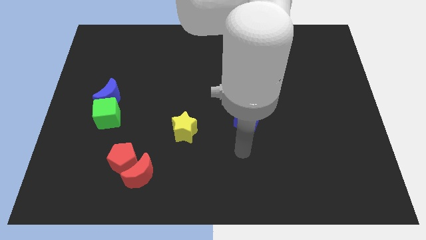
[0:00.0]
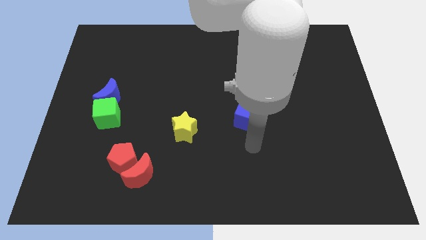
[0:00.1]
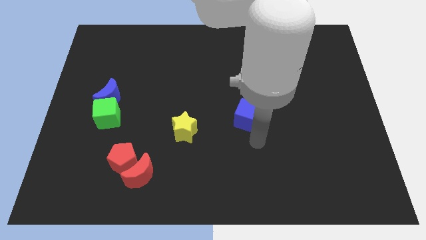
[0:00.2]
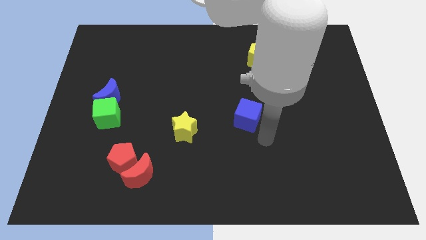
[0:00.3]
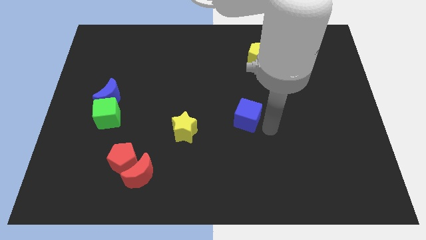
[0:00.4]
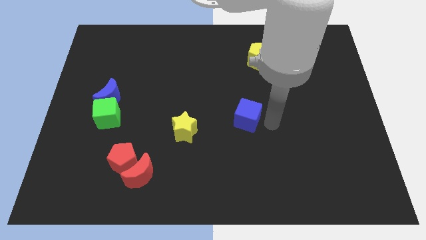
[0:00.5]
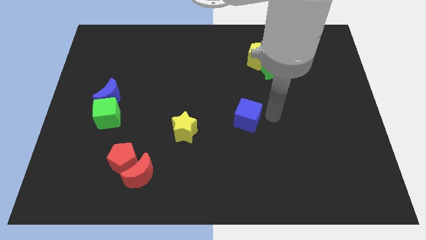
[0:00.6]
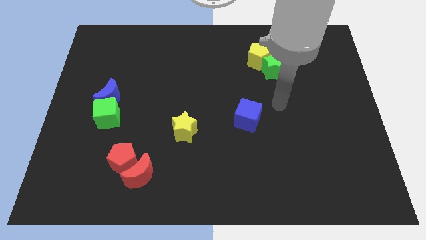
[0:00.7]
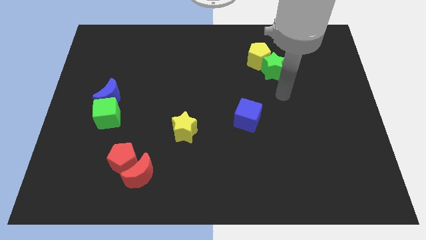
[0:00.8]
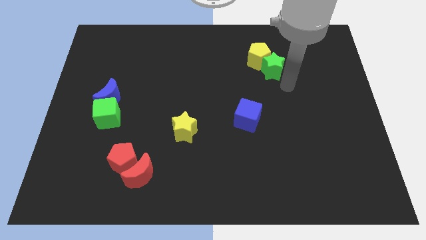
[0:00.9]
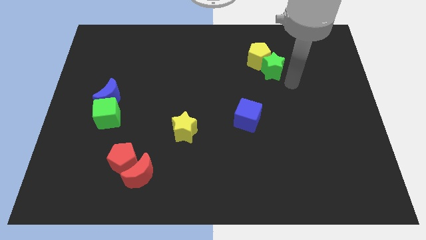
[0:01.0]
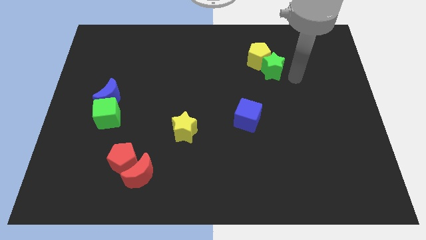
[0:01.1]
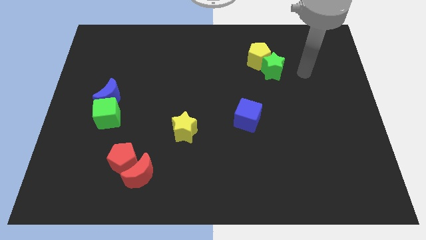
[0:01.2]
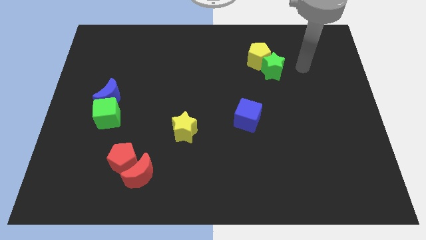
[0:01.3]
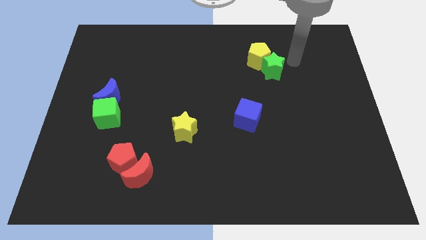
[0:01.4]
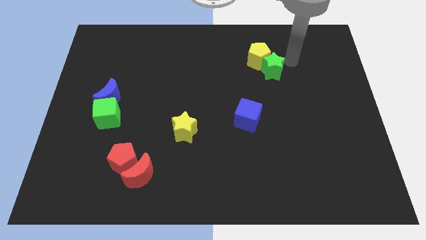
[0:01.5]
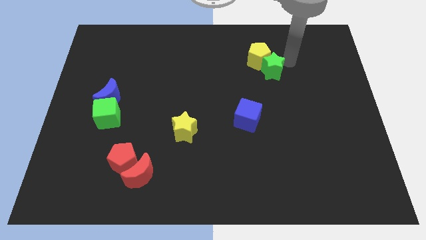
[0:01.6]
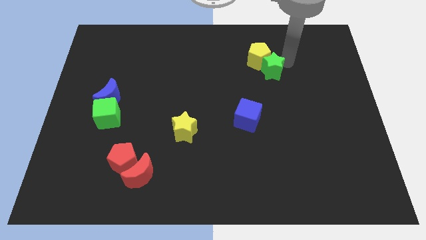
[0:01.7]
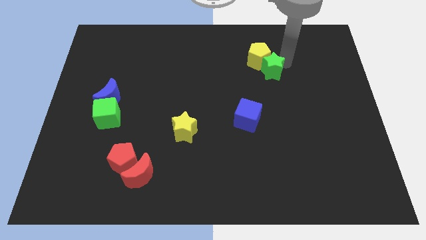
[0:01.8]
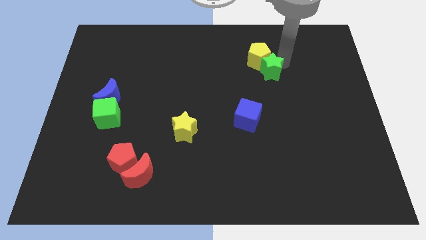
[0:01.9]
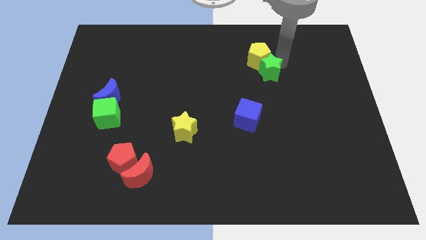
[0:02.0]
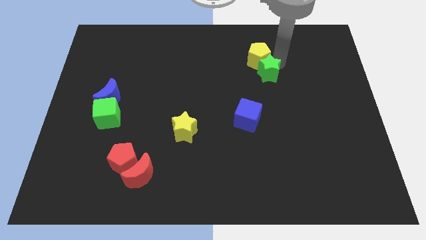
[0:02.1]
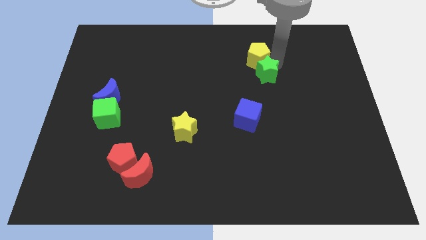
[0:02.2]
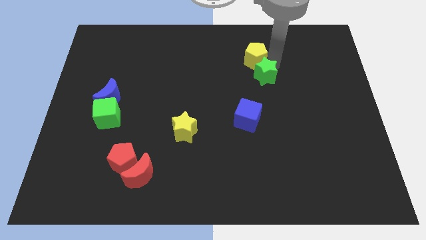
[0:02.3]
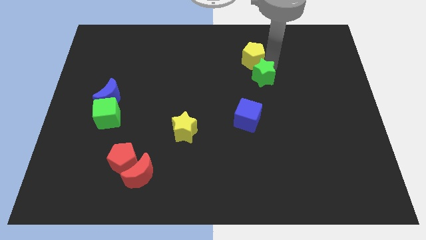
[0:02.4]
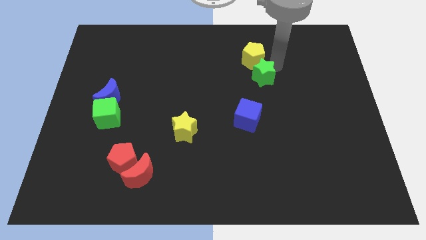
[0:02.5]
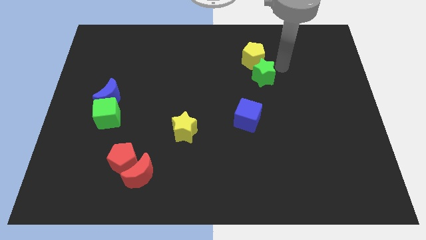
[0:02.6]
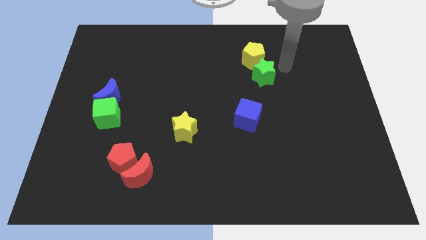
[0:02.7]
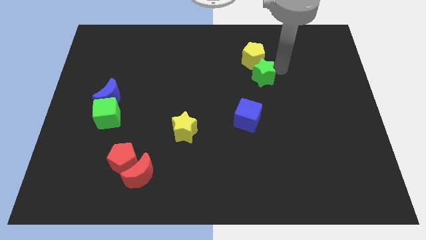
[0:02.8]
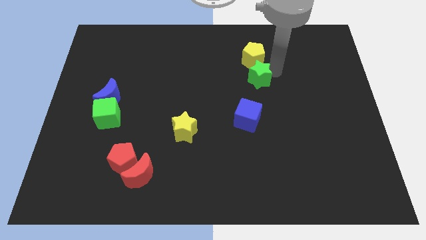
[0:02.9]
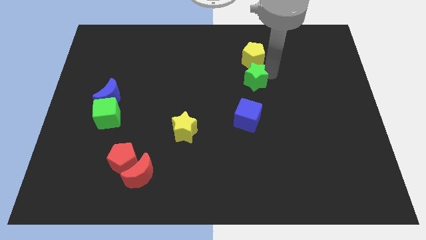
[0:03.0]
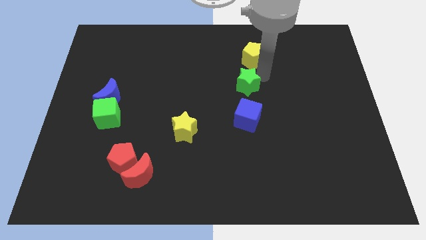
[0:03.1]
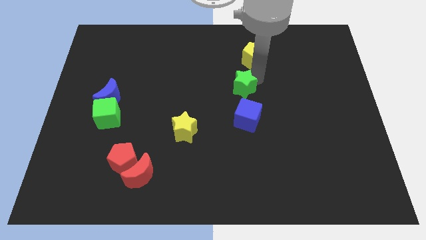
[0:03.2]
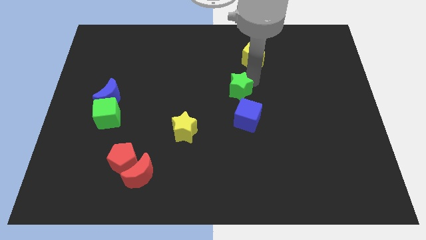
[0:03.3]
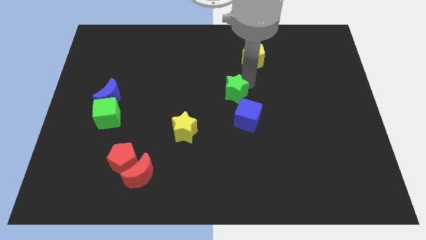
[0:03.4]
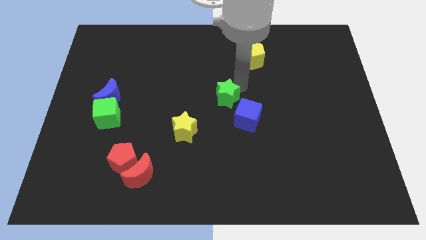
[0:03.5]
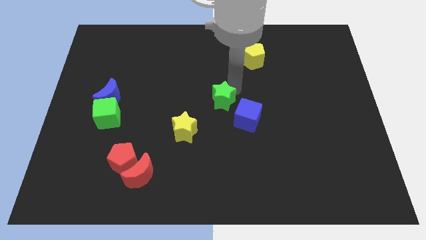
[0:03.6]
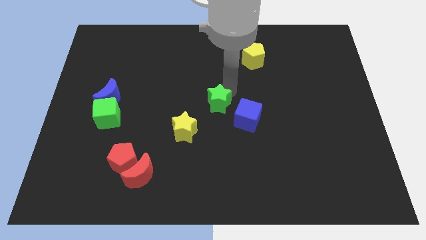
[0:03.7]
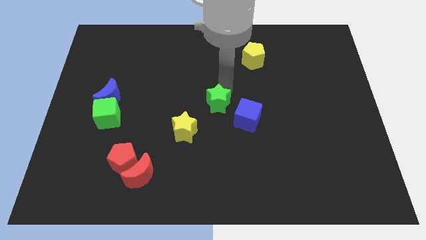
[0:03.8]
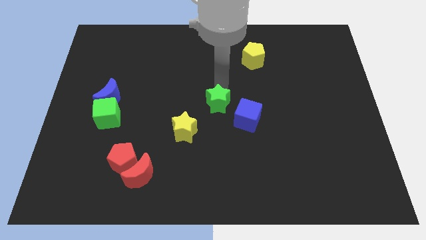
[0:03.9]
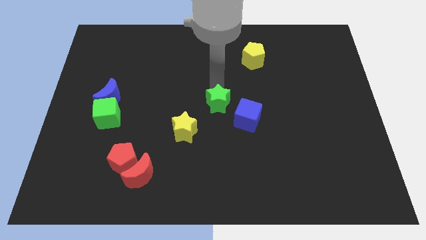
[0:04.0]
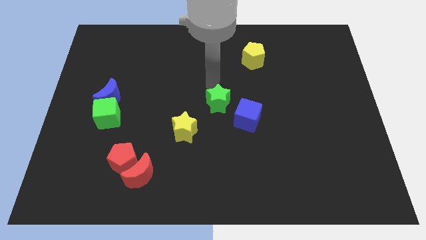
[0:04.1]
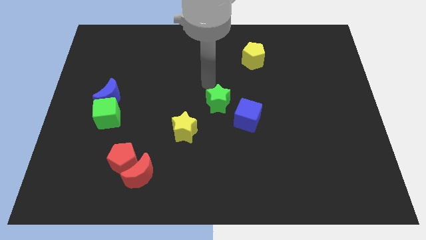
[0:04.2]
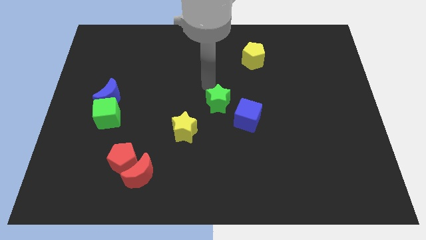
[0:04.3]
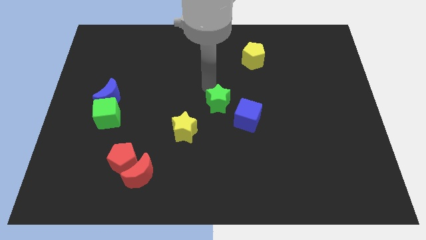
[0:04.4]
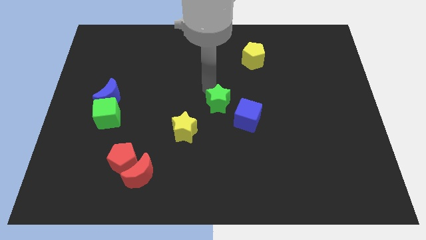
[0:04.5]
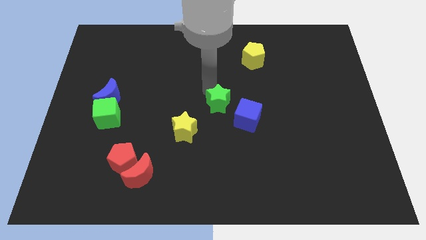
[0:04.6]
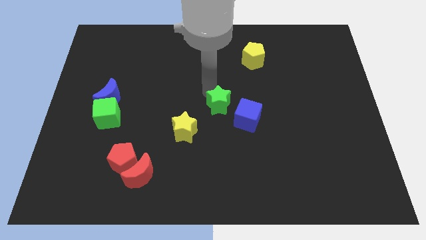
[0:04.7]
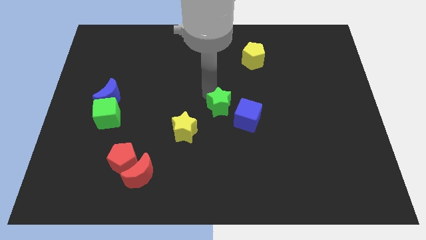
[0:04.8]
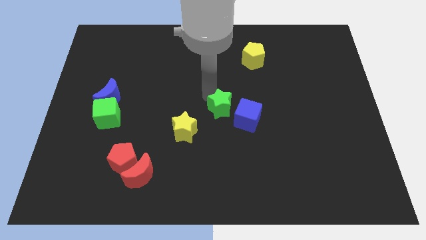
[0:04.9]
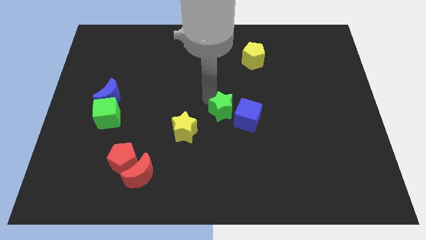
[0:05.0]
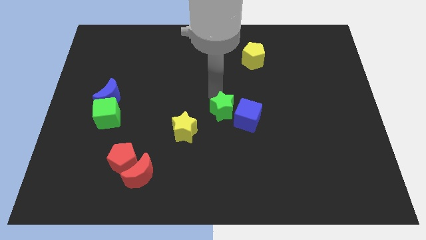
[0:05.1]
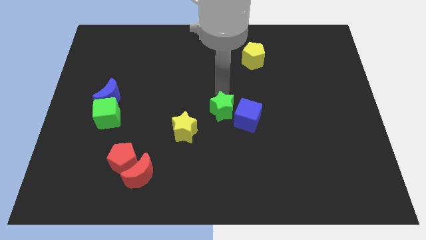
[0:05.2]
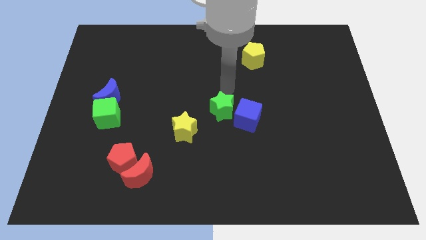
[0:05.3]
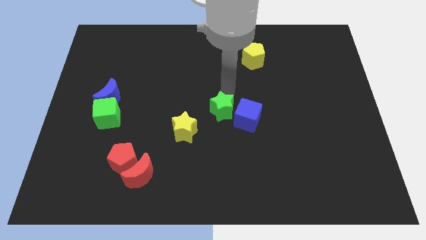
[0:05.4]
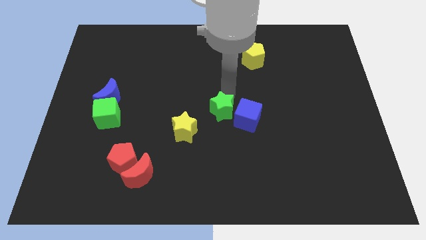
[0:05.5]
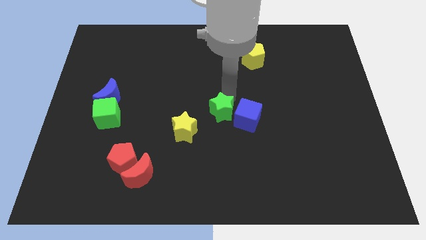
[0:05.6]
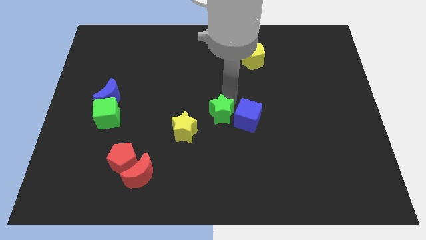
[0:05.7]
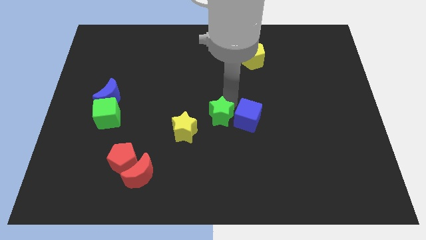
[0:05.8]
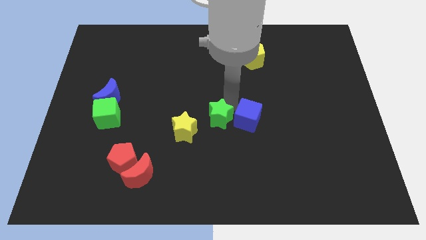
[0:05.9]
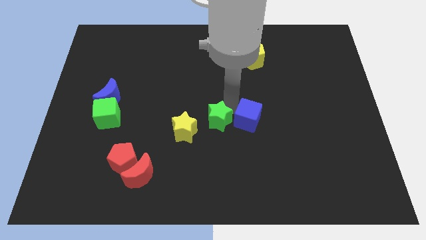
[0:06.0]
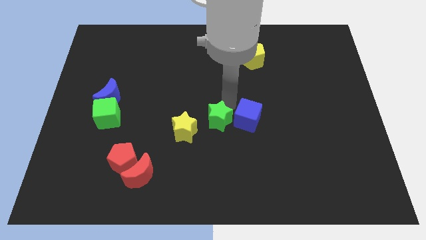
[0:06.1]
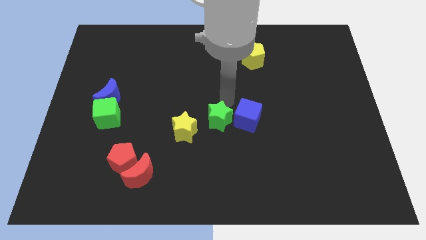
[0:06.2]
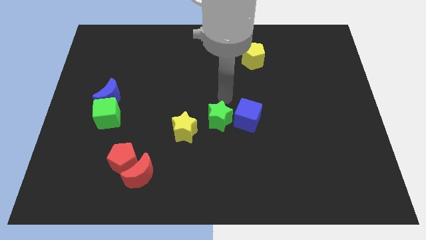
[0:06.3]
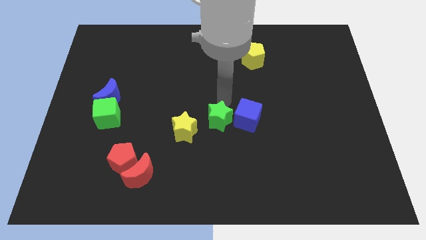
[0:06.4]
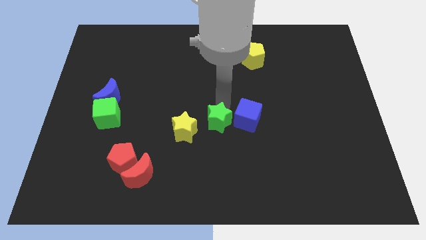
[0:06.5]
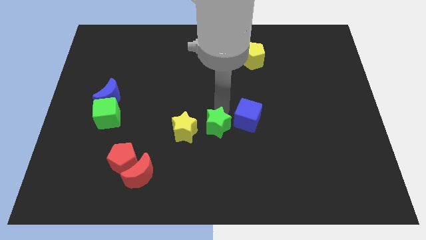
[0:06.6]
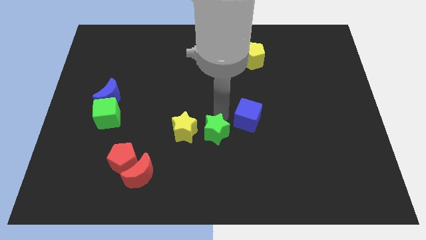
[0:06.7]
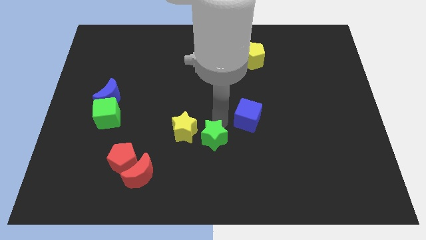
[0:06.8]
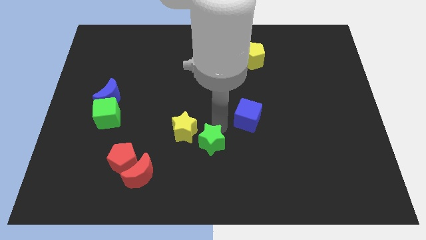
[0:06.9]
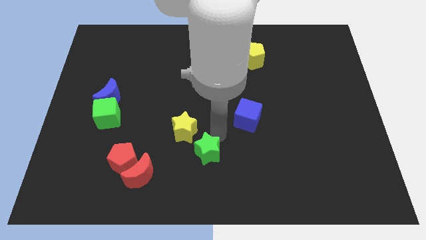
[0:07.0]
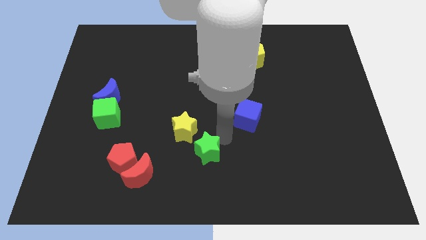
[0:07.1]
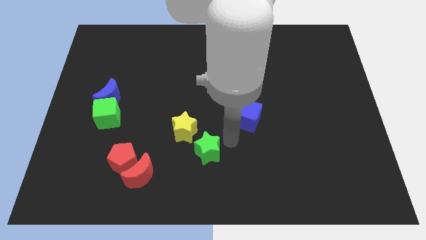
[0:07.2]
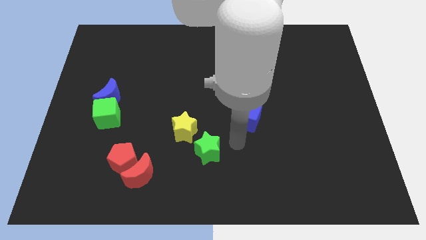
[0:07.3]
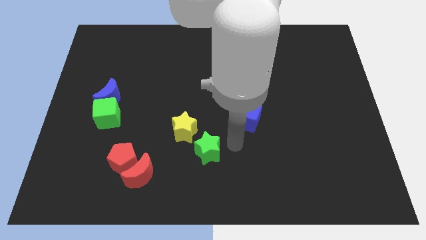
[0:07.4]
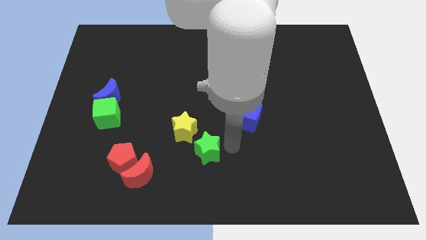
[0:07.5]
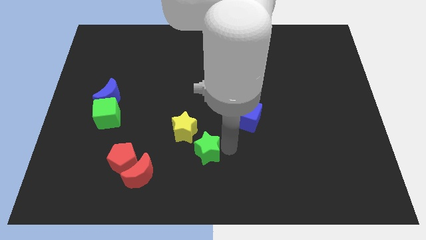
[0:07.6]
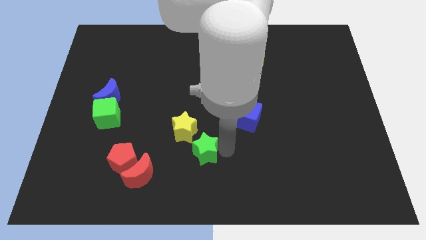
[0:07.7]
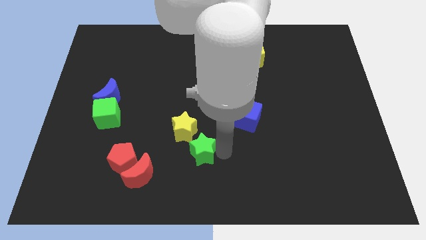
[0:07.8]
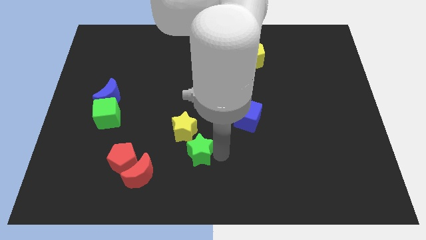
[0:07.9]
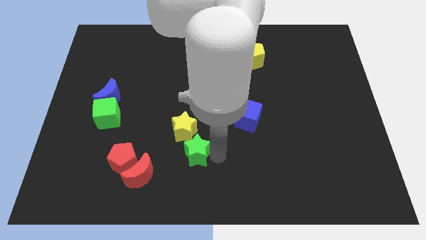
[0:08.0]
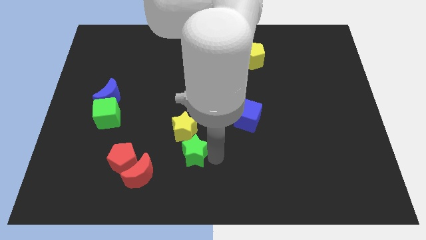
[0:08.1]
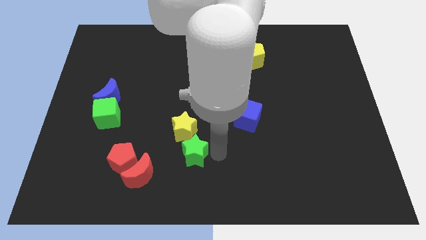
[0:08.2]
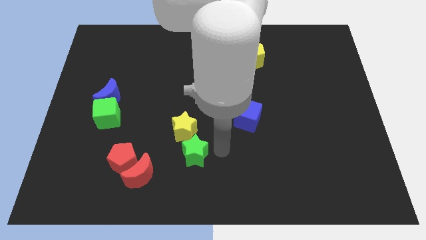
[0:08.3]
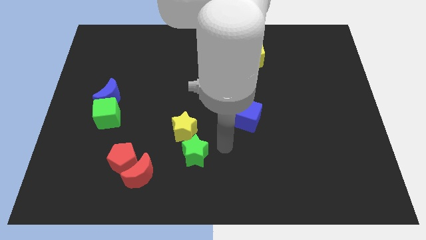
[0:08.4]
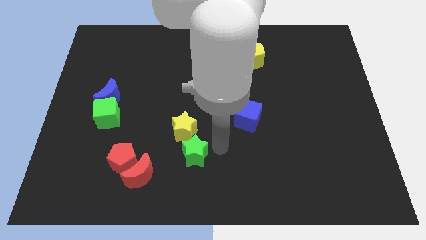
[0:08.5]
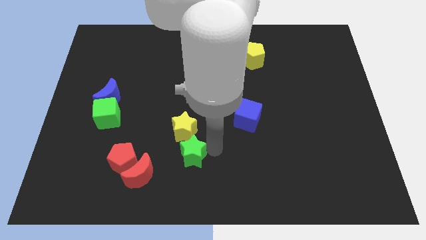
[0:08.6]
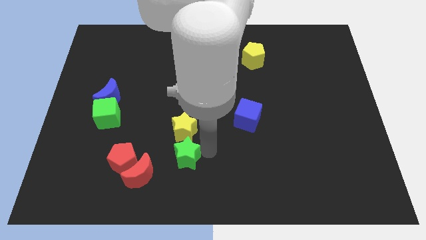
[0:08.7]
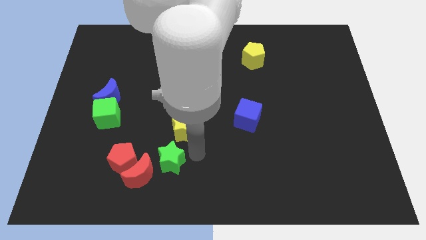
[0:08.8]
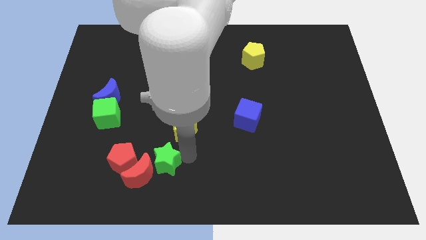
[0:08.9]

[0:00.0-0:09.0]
put the green star close to the red moon
